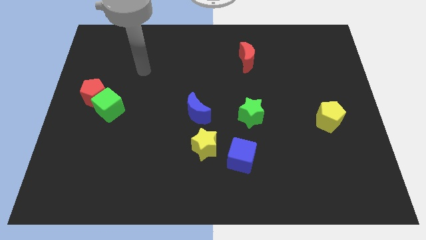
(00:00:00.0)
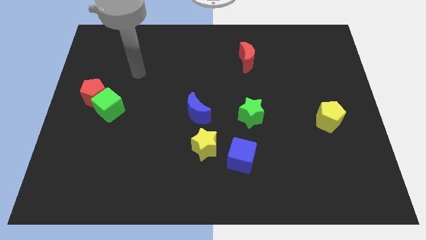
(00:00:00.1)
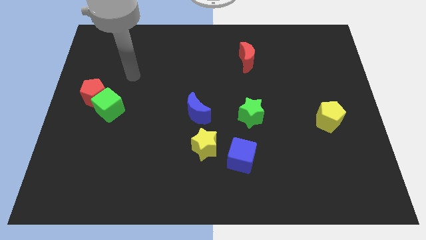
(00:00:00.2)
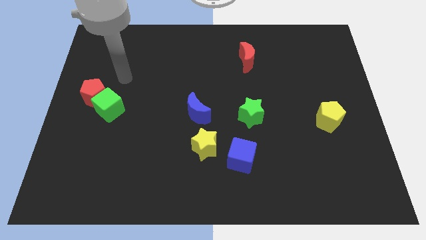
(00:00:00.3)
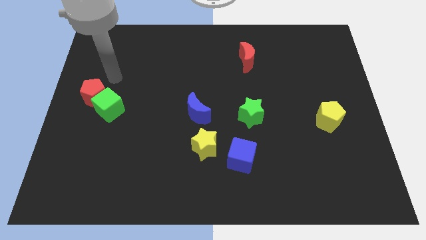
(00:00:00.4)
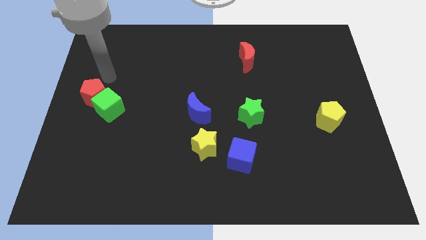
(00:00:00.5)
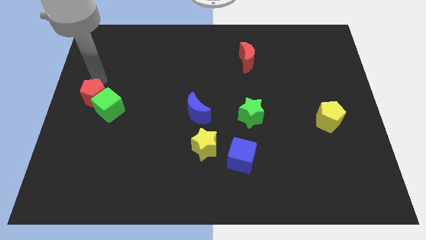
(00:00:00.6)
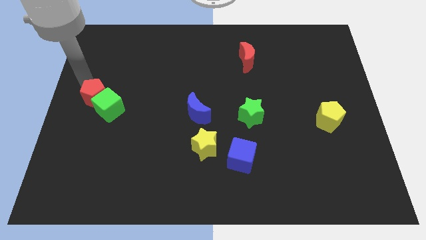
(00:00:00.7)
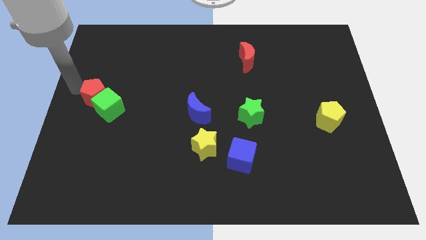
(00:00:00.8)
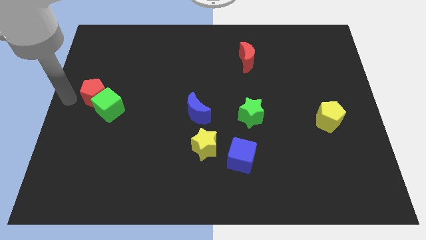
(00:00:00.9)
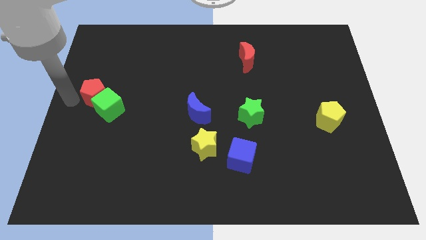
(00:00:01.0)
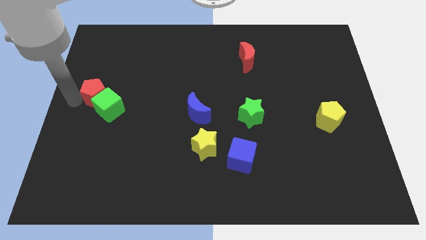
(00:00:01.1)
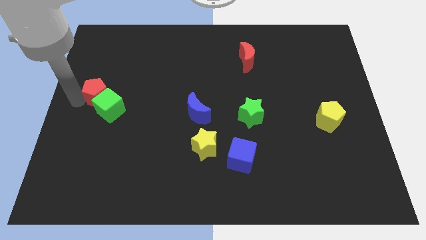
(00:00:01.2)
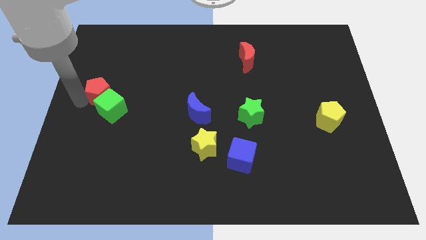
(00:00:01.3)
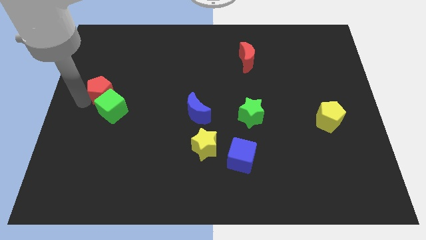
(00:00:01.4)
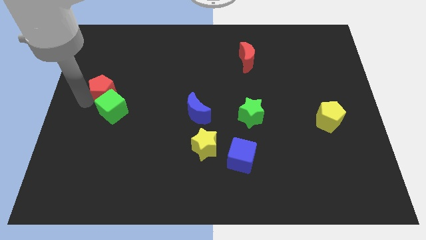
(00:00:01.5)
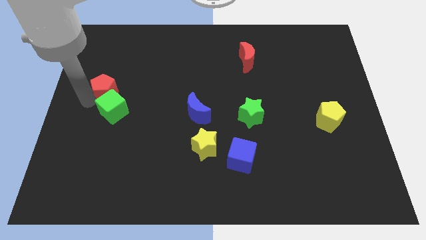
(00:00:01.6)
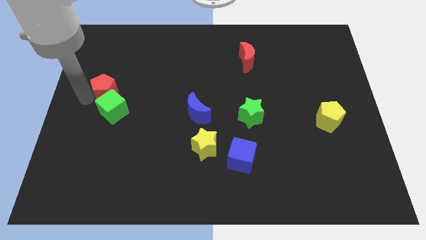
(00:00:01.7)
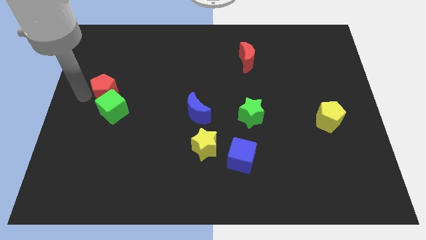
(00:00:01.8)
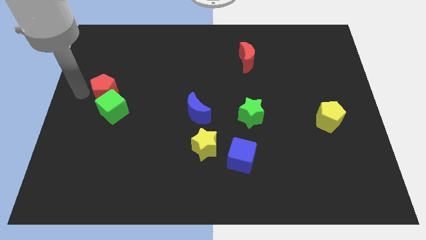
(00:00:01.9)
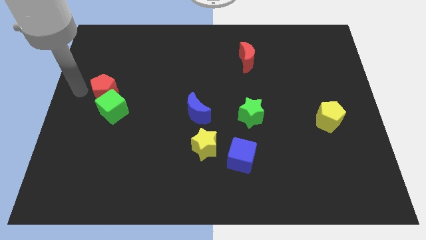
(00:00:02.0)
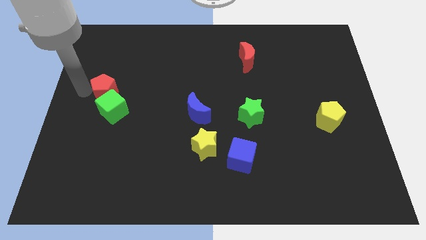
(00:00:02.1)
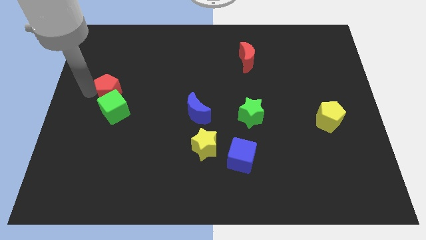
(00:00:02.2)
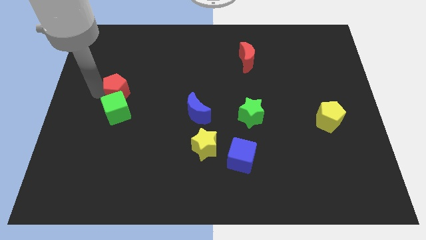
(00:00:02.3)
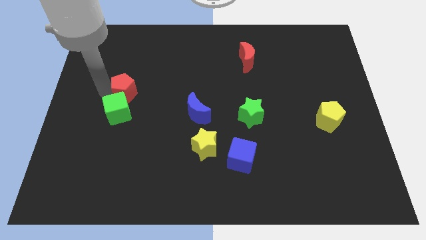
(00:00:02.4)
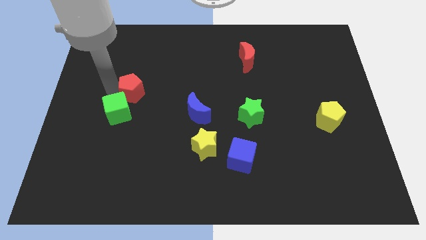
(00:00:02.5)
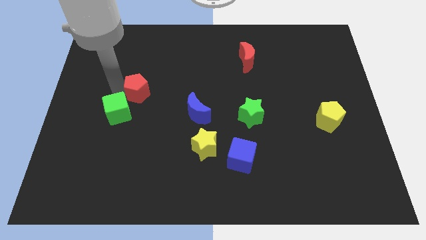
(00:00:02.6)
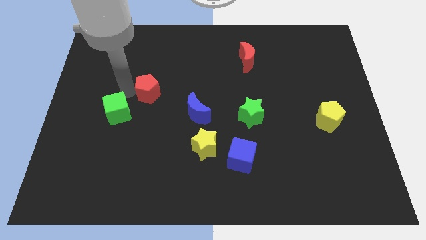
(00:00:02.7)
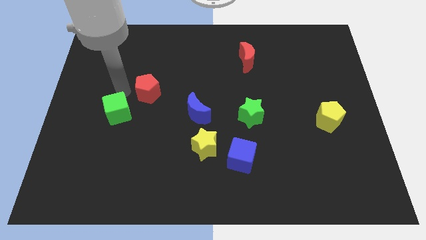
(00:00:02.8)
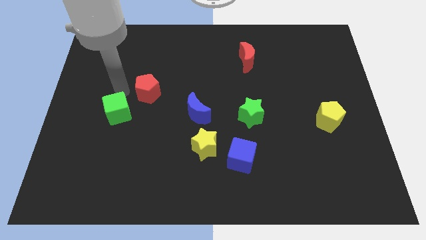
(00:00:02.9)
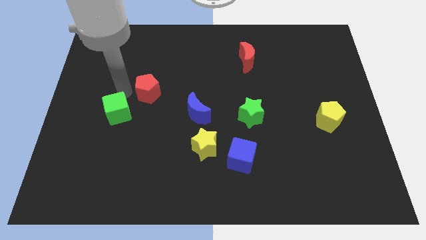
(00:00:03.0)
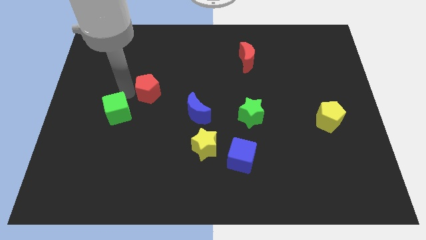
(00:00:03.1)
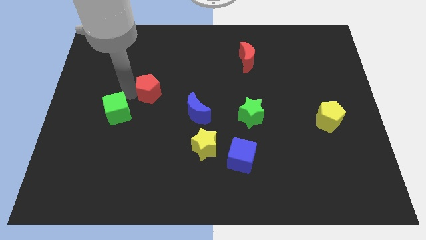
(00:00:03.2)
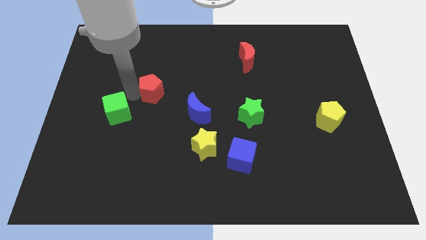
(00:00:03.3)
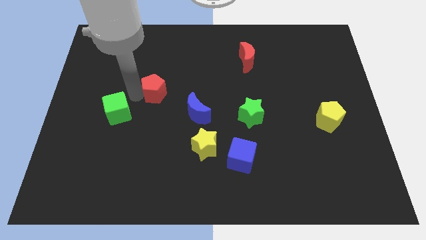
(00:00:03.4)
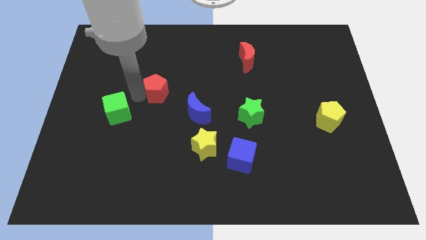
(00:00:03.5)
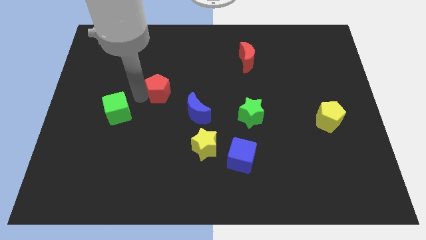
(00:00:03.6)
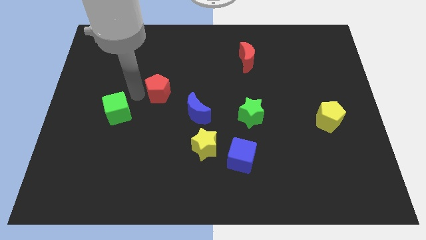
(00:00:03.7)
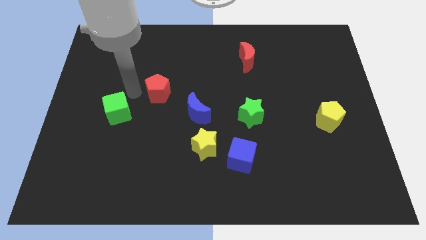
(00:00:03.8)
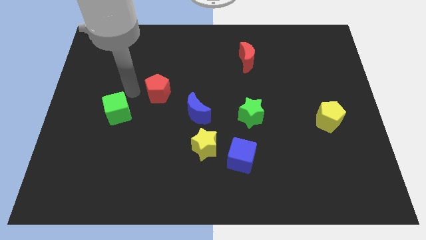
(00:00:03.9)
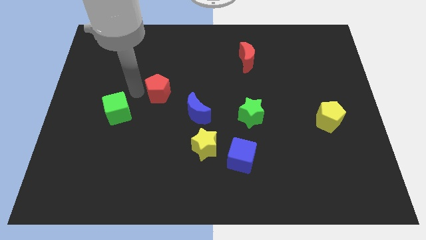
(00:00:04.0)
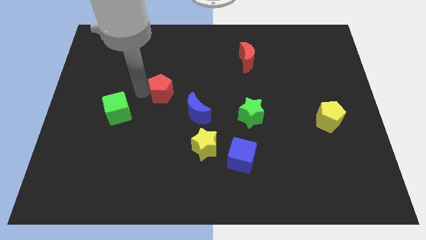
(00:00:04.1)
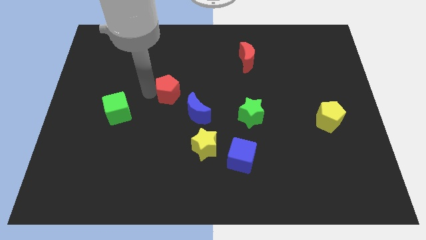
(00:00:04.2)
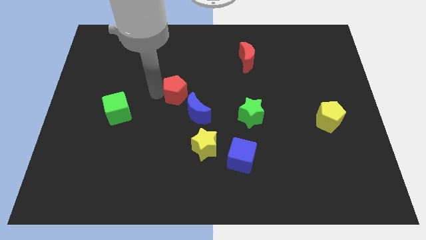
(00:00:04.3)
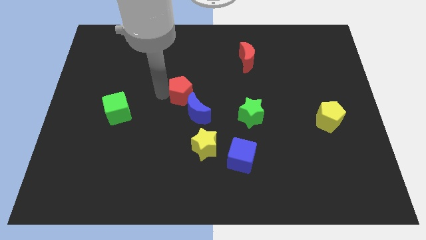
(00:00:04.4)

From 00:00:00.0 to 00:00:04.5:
push the red pentagon right

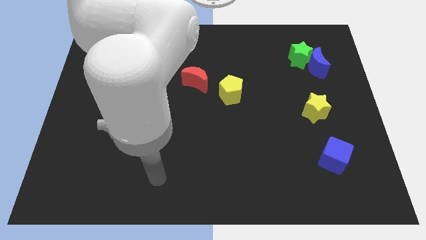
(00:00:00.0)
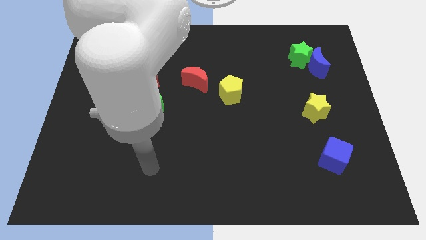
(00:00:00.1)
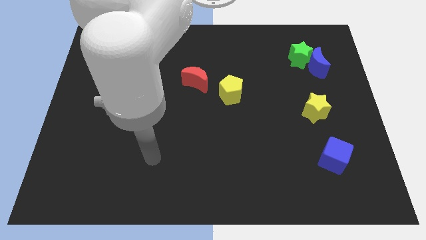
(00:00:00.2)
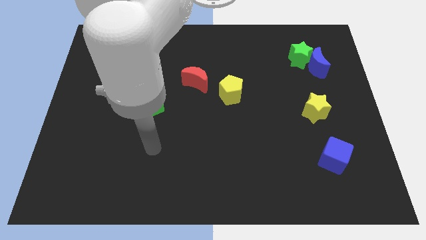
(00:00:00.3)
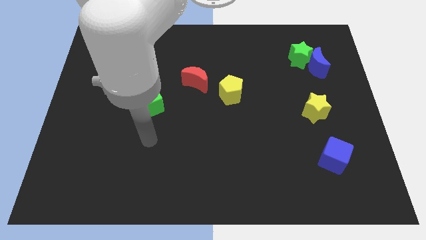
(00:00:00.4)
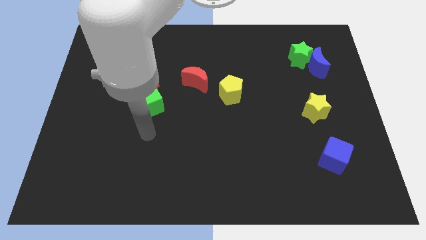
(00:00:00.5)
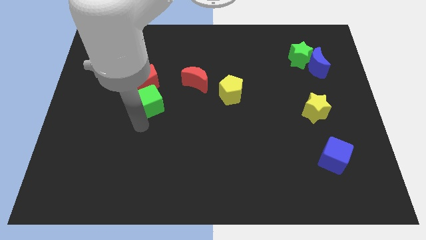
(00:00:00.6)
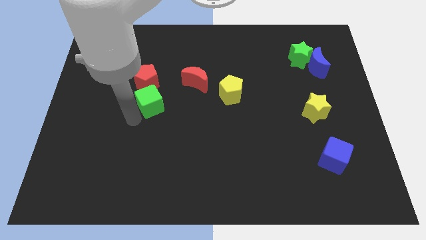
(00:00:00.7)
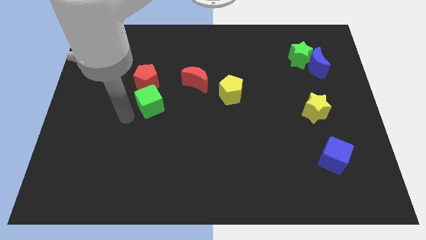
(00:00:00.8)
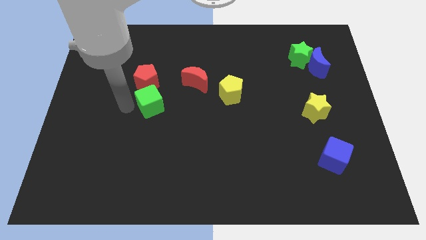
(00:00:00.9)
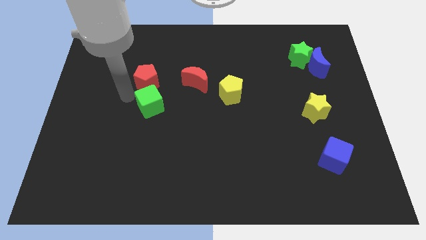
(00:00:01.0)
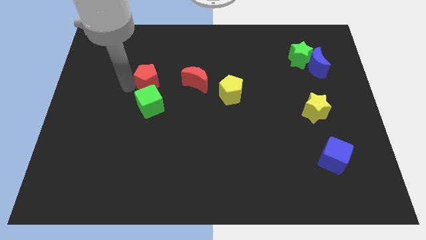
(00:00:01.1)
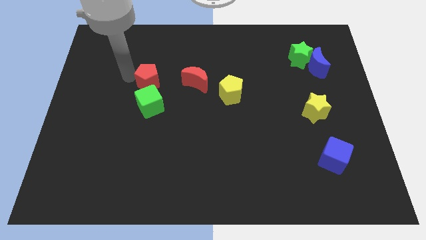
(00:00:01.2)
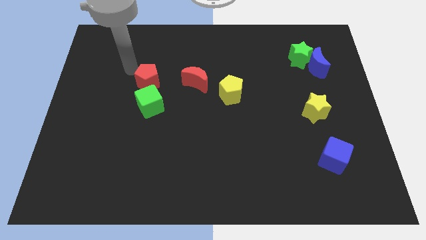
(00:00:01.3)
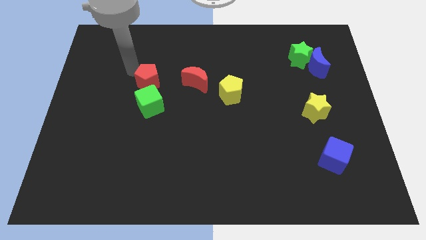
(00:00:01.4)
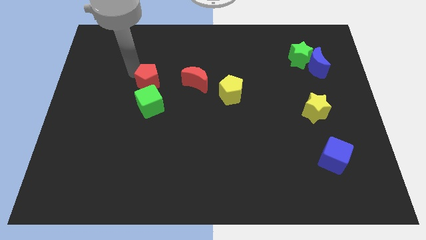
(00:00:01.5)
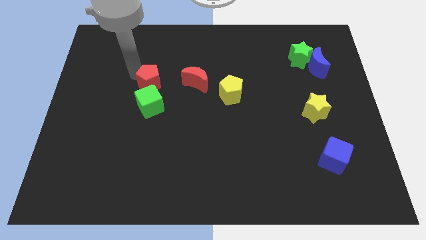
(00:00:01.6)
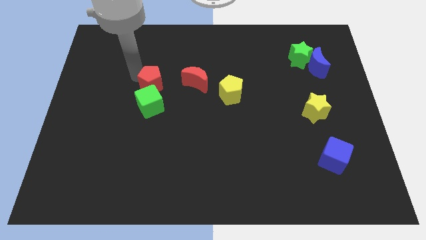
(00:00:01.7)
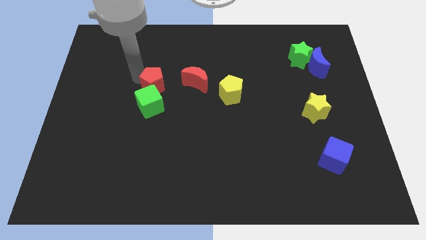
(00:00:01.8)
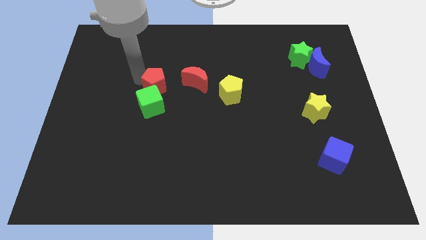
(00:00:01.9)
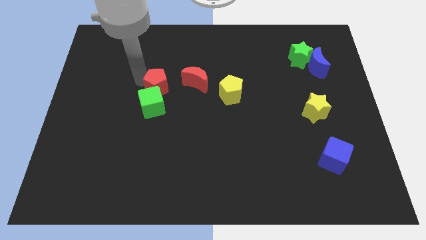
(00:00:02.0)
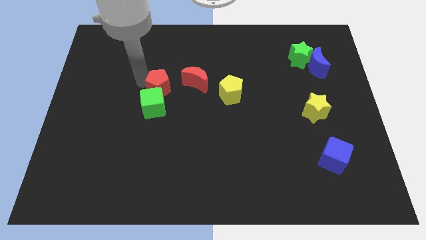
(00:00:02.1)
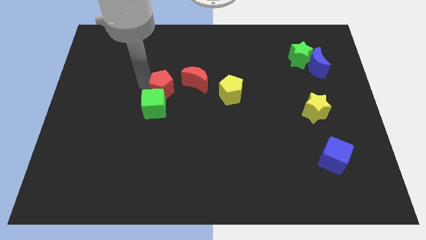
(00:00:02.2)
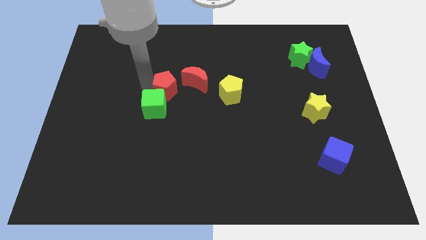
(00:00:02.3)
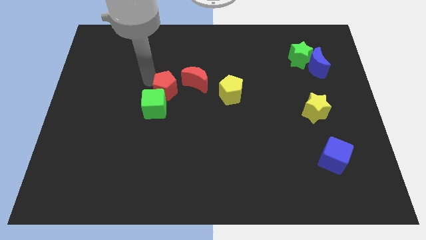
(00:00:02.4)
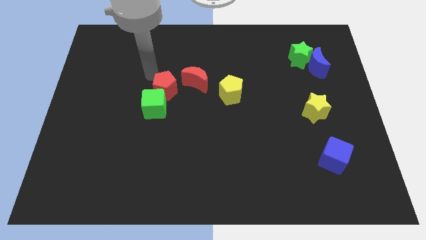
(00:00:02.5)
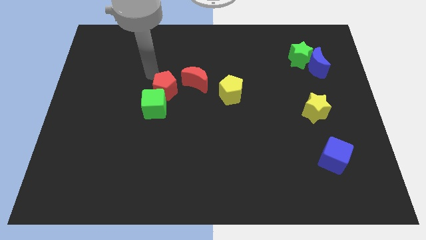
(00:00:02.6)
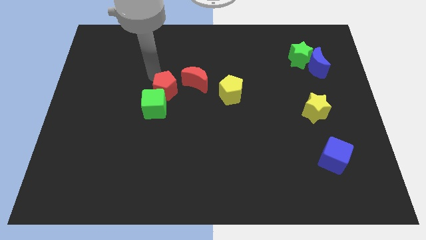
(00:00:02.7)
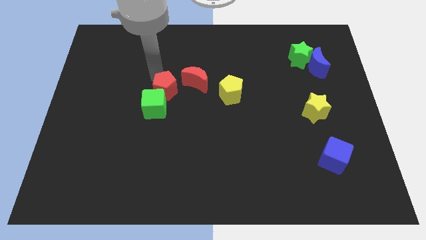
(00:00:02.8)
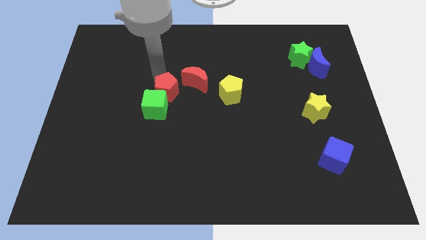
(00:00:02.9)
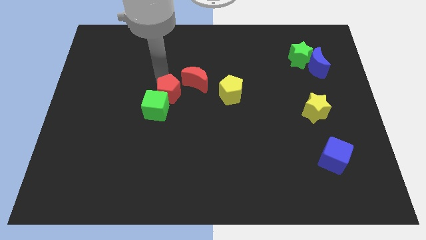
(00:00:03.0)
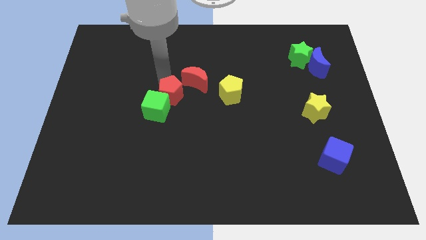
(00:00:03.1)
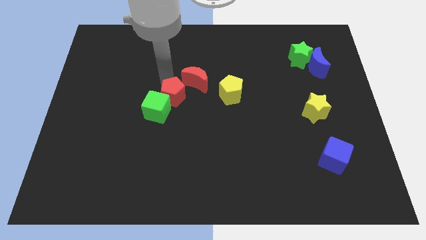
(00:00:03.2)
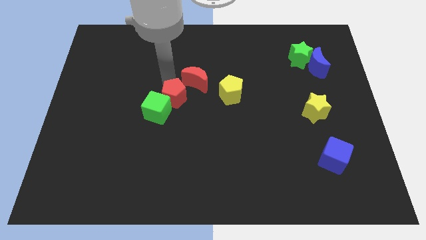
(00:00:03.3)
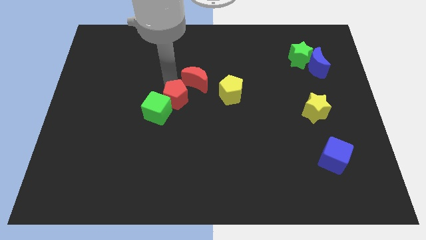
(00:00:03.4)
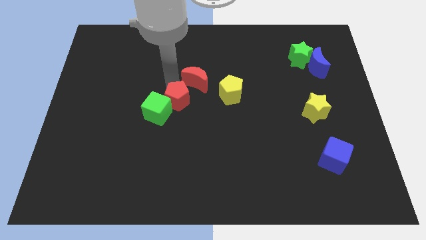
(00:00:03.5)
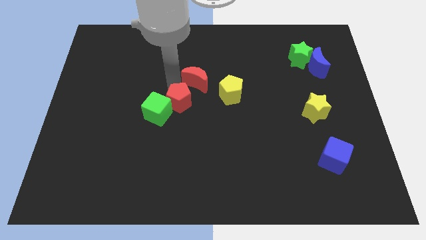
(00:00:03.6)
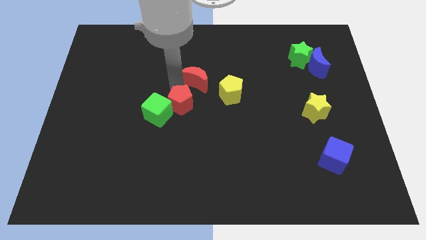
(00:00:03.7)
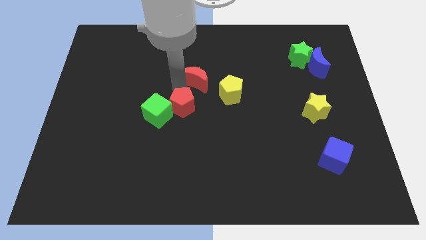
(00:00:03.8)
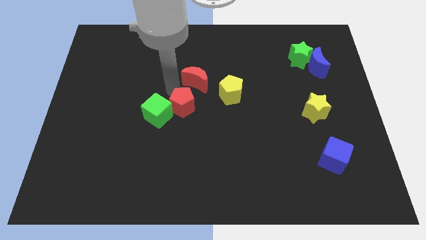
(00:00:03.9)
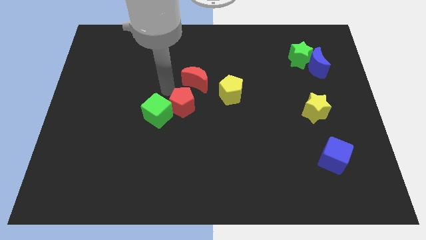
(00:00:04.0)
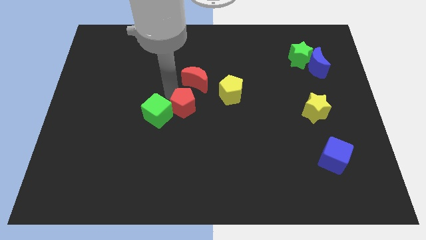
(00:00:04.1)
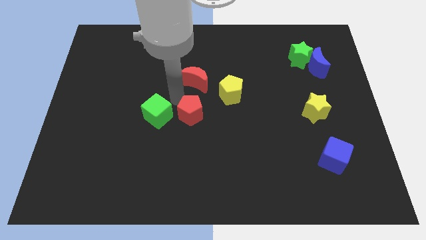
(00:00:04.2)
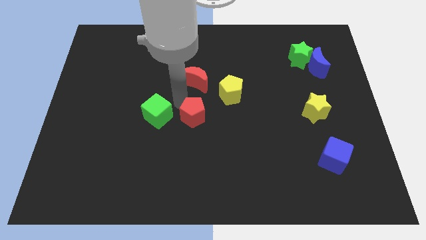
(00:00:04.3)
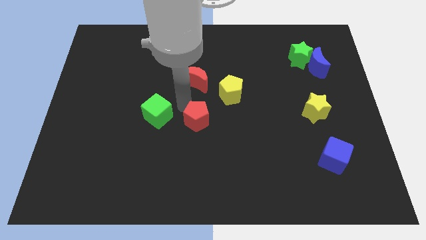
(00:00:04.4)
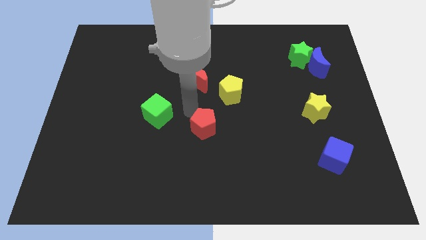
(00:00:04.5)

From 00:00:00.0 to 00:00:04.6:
slide the red pentagon down and to the right
